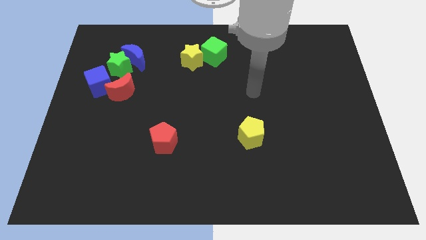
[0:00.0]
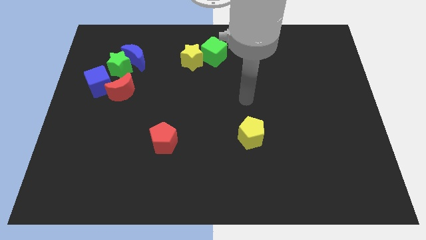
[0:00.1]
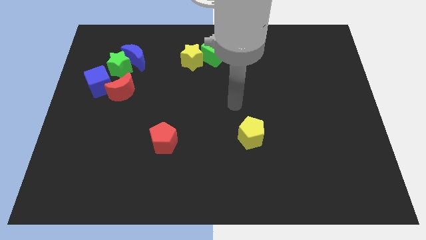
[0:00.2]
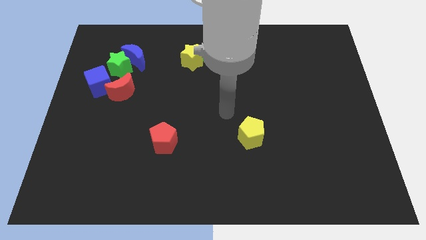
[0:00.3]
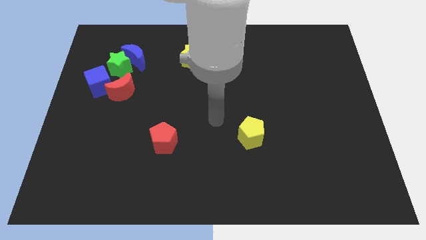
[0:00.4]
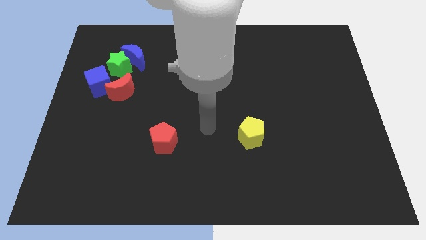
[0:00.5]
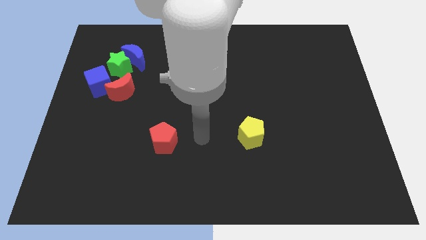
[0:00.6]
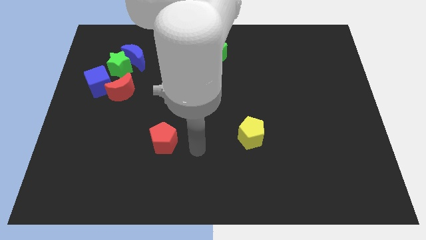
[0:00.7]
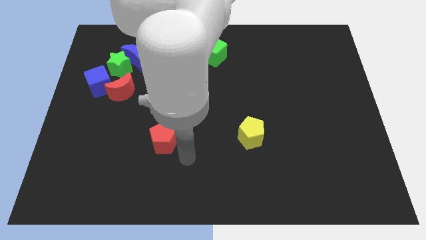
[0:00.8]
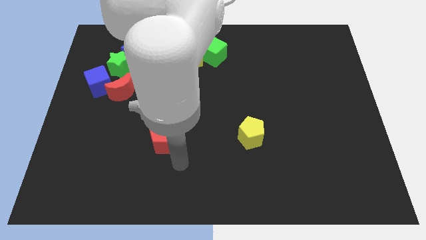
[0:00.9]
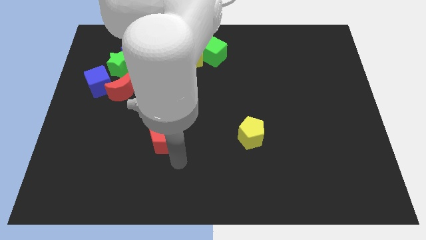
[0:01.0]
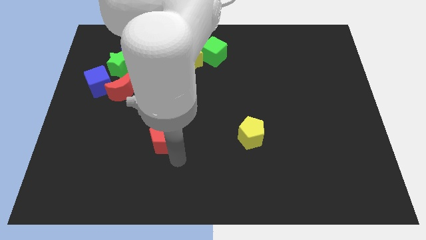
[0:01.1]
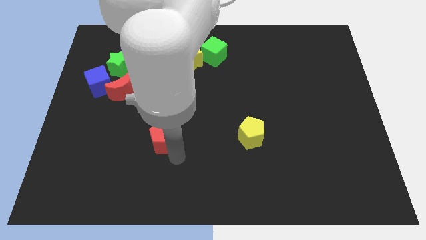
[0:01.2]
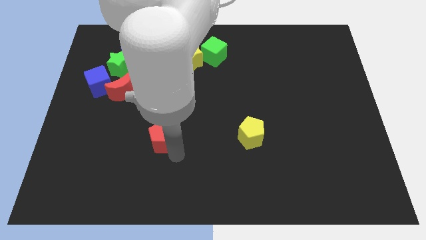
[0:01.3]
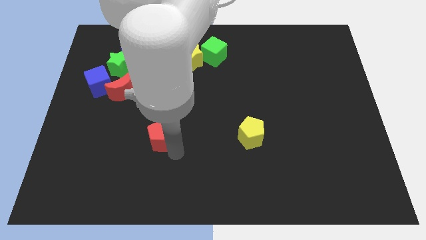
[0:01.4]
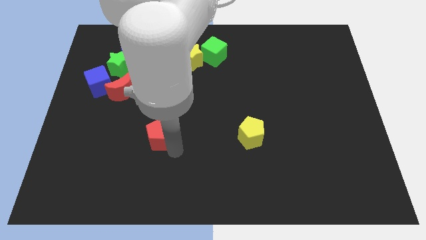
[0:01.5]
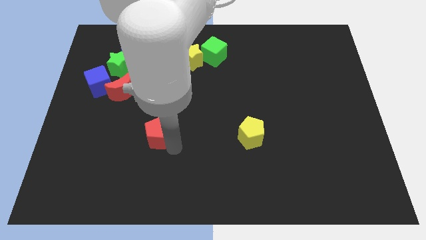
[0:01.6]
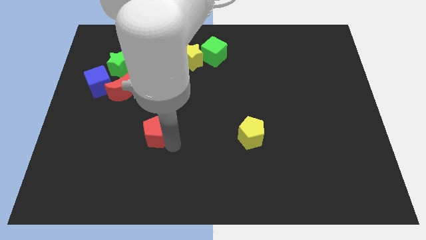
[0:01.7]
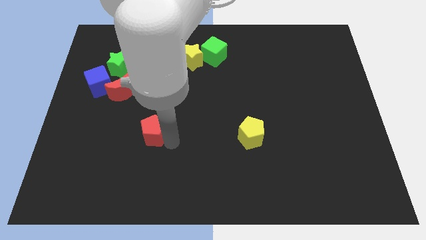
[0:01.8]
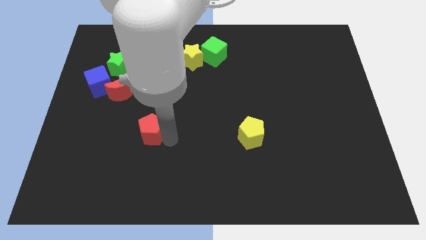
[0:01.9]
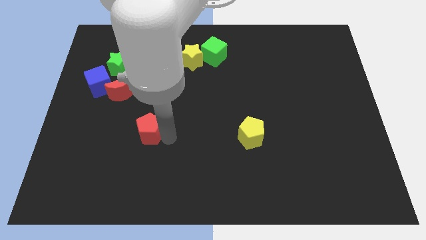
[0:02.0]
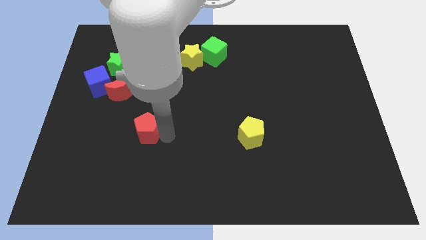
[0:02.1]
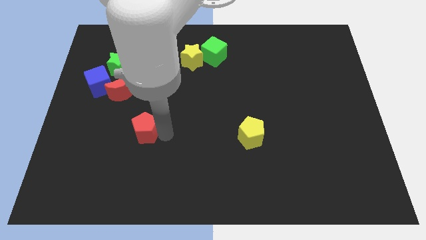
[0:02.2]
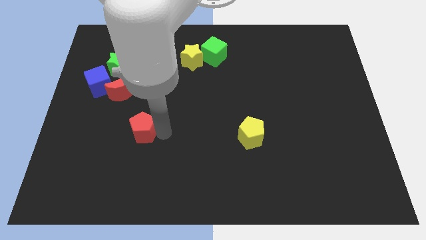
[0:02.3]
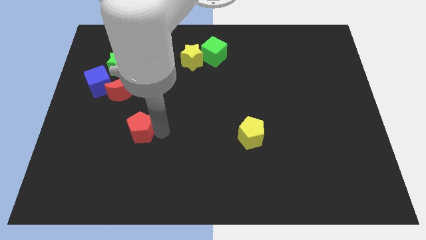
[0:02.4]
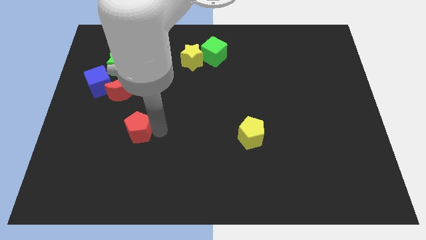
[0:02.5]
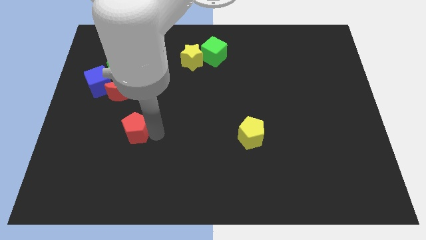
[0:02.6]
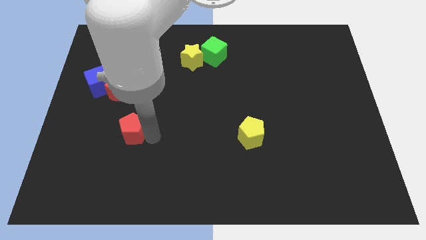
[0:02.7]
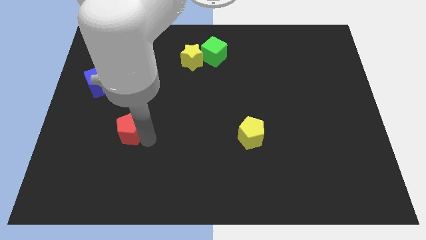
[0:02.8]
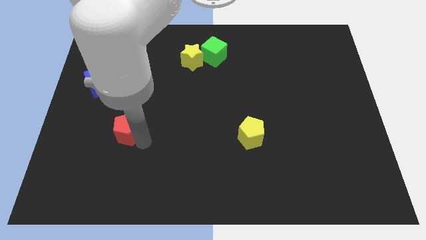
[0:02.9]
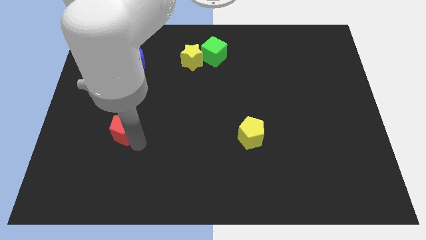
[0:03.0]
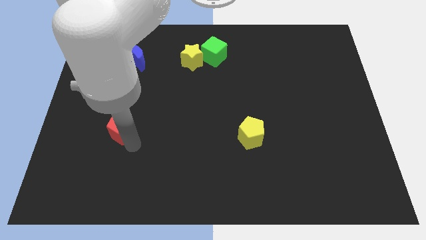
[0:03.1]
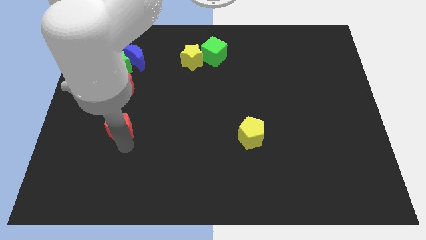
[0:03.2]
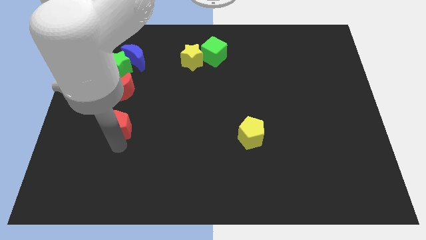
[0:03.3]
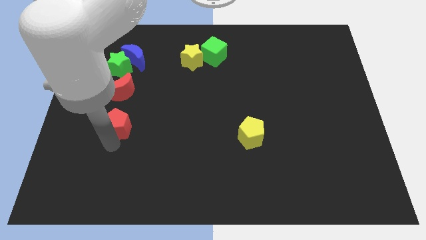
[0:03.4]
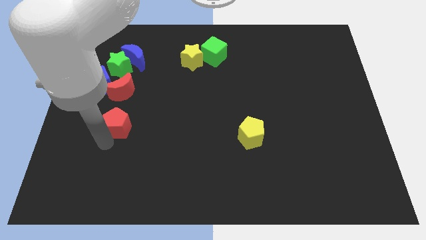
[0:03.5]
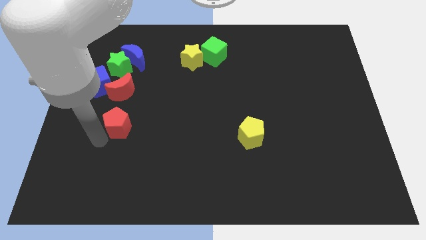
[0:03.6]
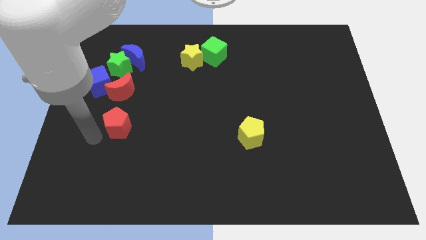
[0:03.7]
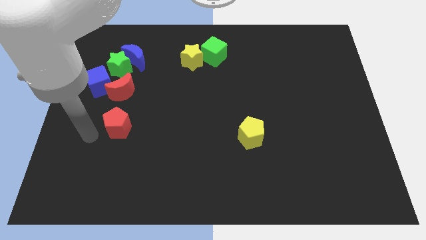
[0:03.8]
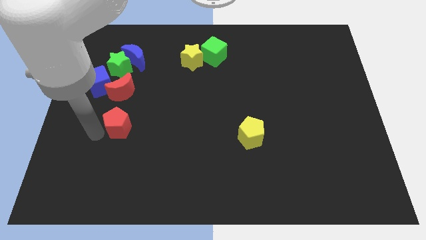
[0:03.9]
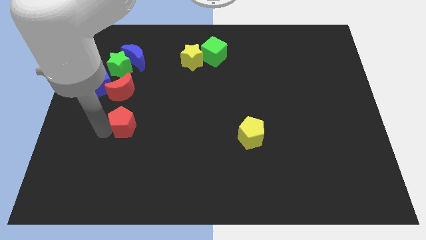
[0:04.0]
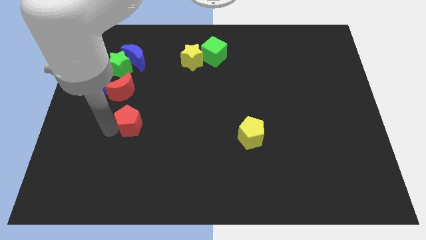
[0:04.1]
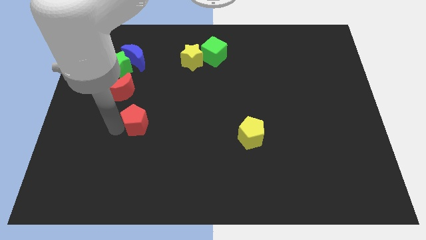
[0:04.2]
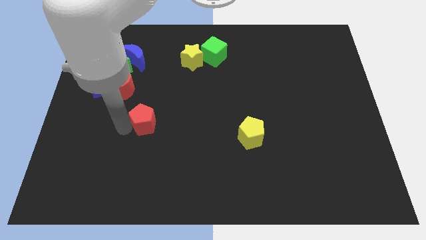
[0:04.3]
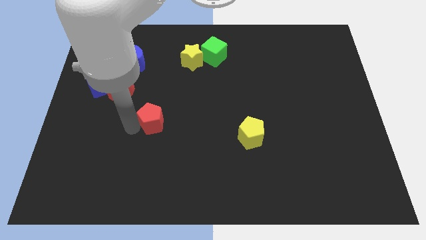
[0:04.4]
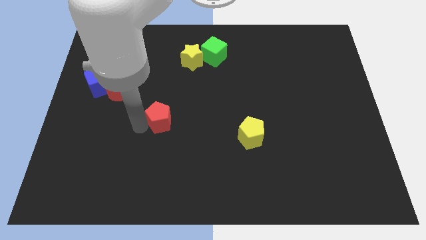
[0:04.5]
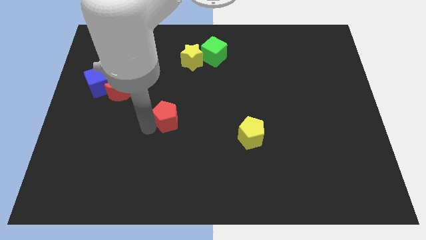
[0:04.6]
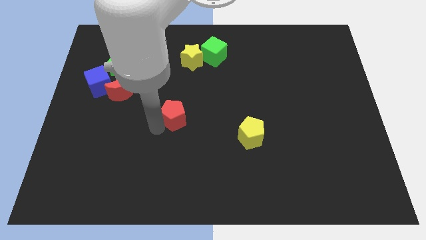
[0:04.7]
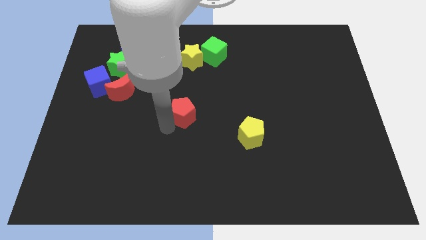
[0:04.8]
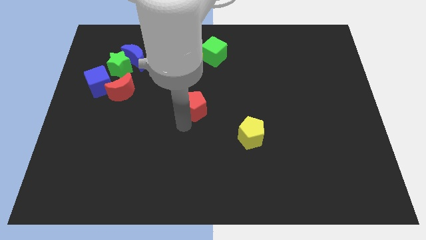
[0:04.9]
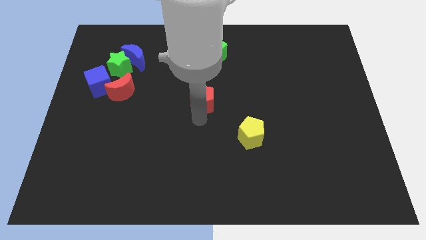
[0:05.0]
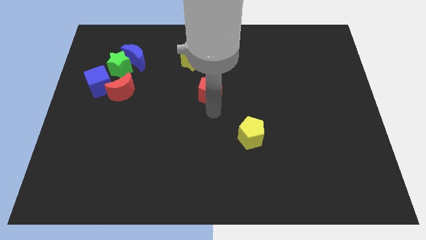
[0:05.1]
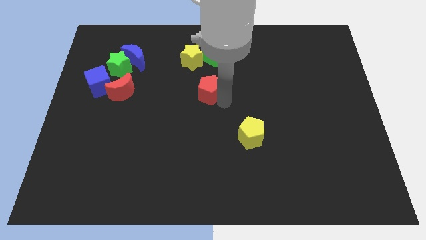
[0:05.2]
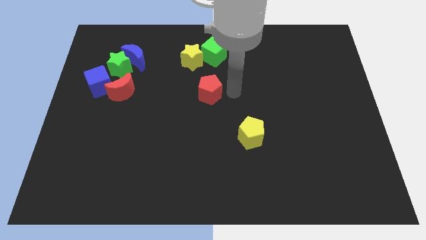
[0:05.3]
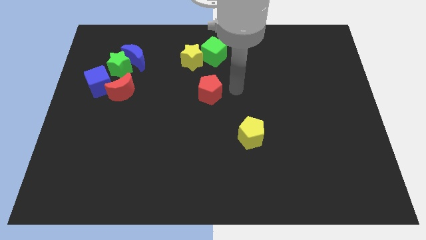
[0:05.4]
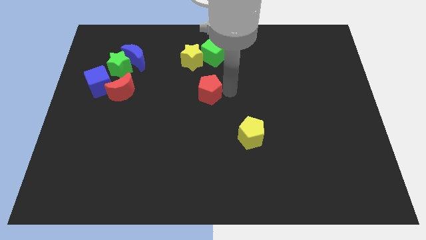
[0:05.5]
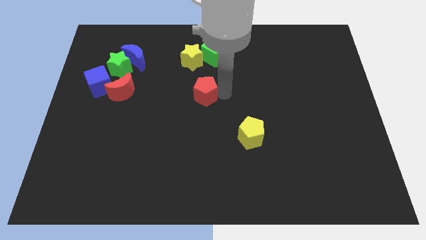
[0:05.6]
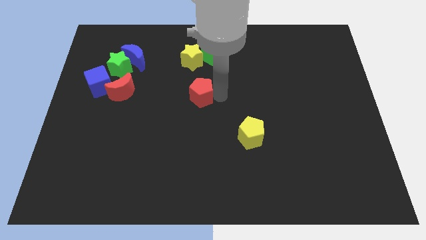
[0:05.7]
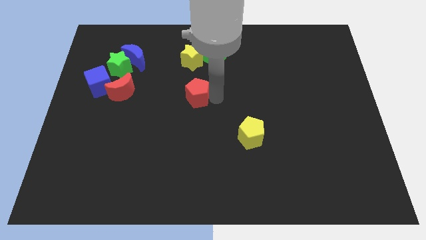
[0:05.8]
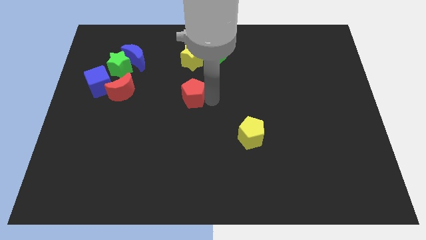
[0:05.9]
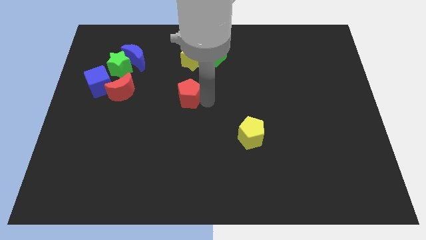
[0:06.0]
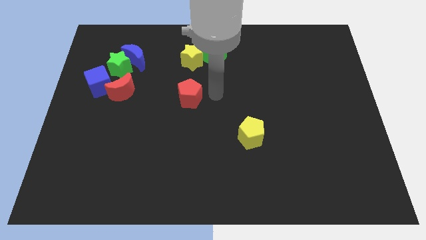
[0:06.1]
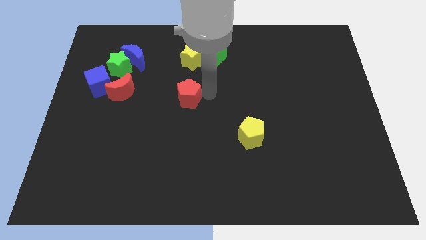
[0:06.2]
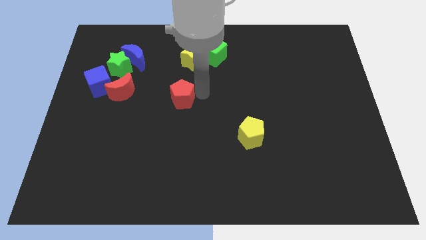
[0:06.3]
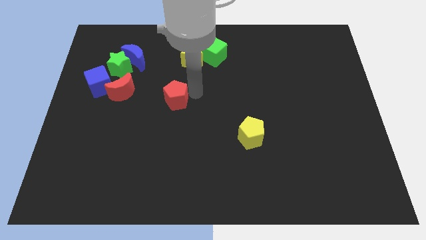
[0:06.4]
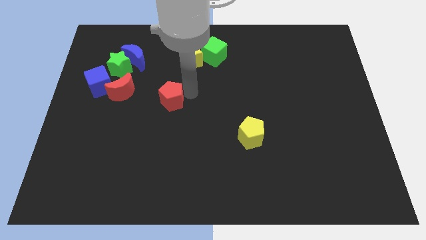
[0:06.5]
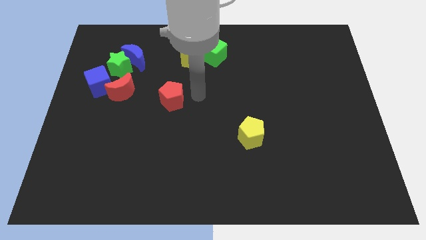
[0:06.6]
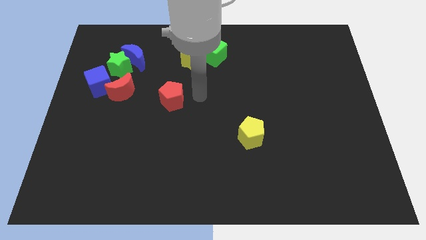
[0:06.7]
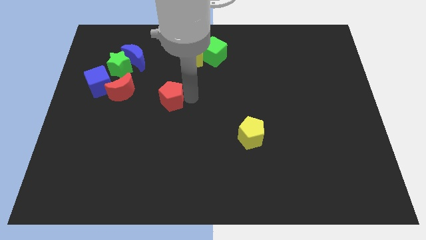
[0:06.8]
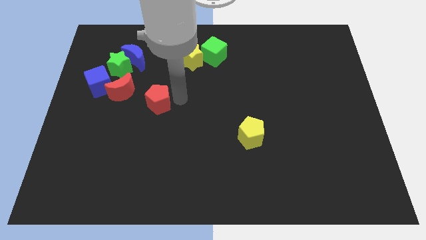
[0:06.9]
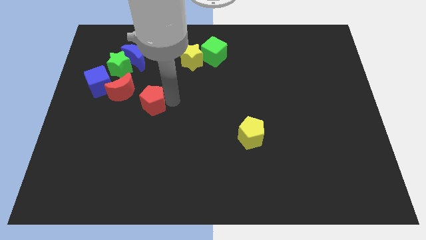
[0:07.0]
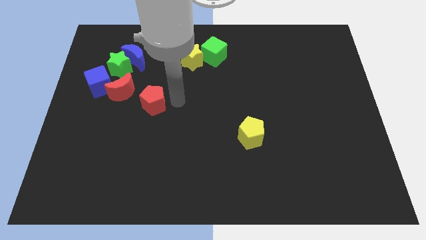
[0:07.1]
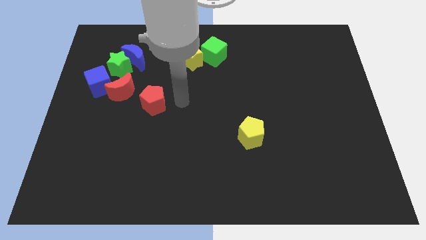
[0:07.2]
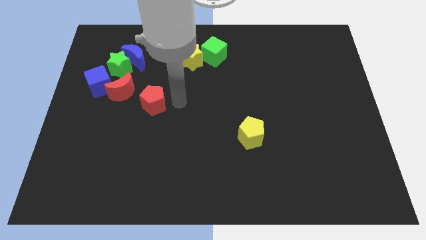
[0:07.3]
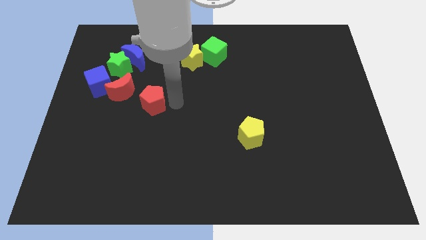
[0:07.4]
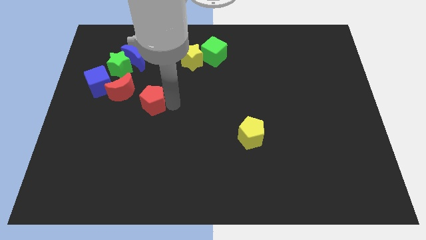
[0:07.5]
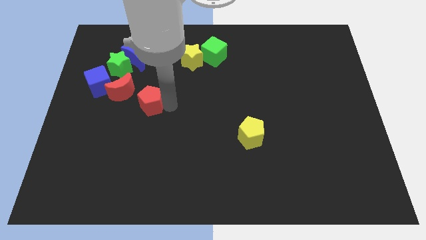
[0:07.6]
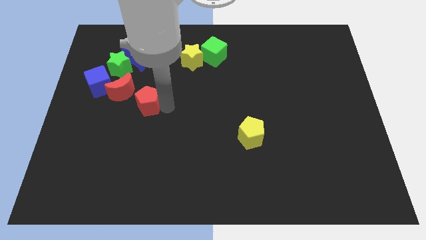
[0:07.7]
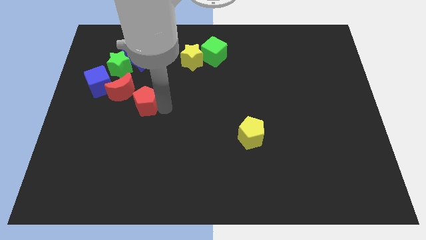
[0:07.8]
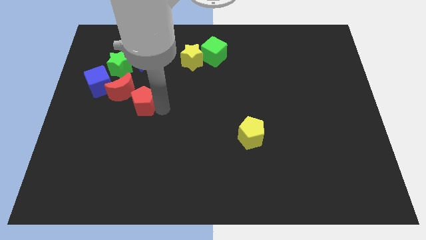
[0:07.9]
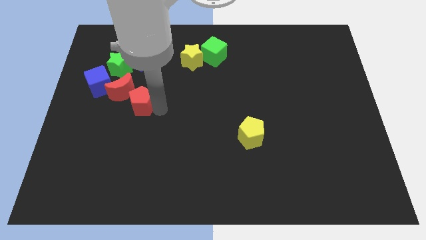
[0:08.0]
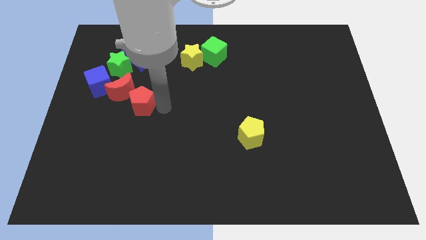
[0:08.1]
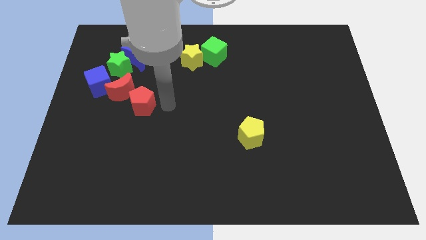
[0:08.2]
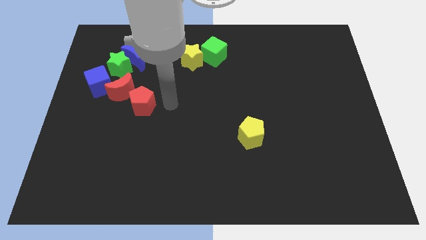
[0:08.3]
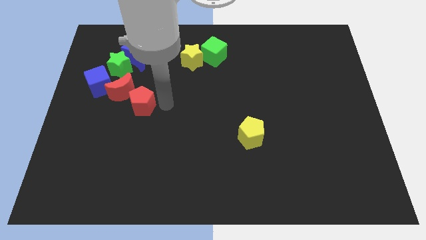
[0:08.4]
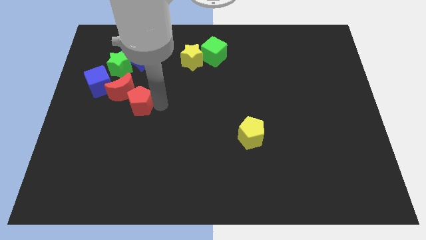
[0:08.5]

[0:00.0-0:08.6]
put the red pentagon below the blue moon
